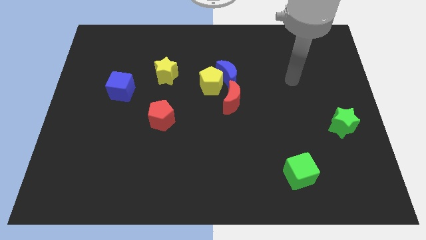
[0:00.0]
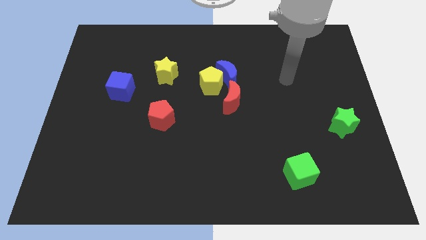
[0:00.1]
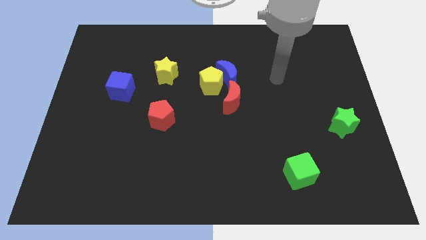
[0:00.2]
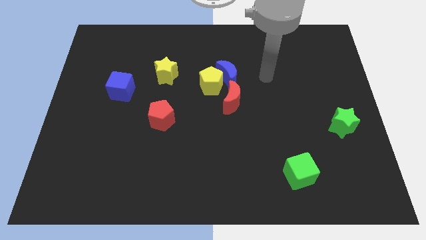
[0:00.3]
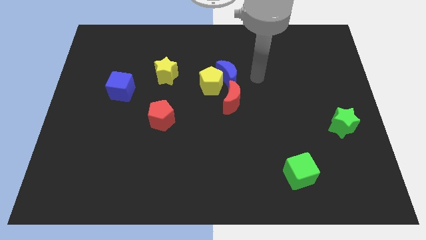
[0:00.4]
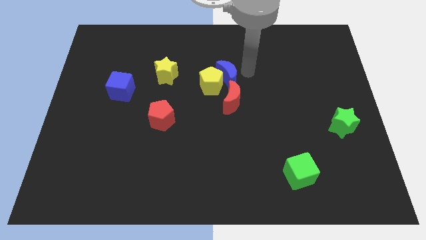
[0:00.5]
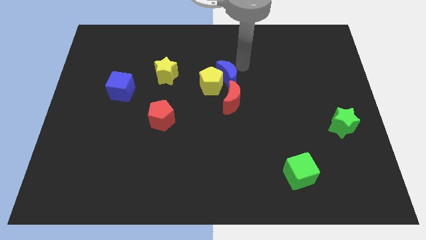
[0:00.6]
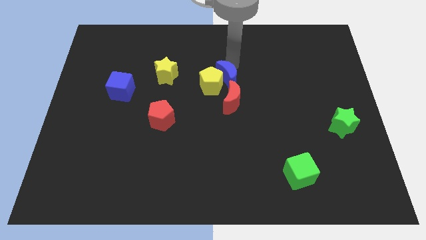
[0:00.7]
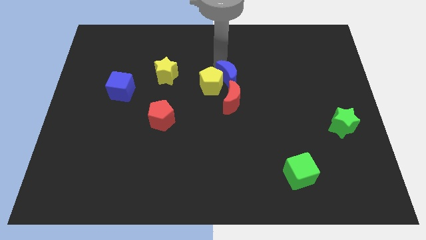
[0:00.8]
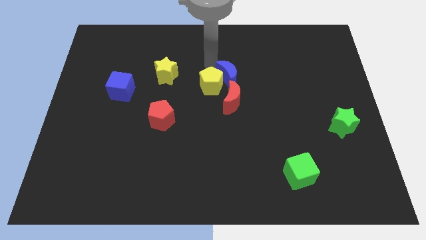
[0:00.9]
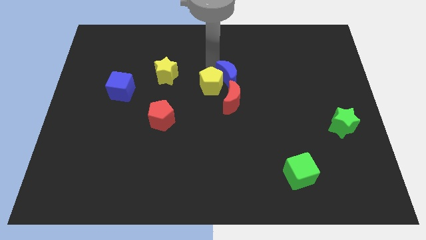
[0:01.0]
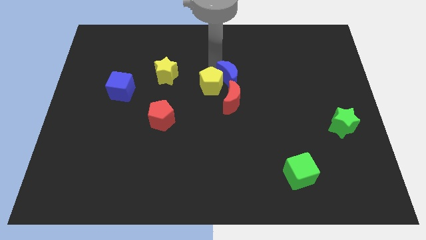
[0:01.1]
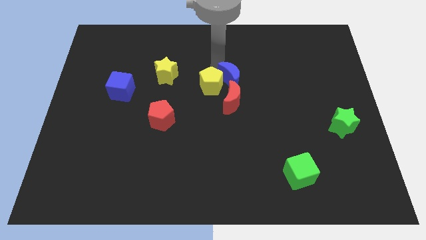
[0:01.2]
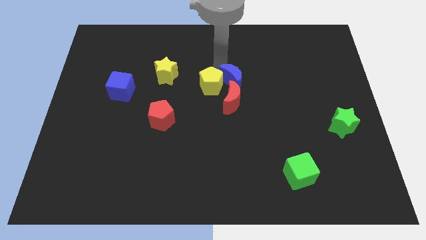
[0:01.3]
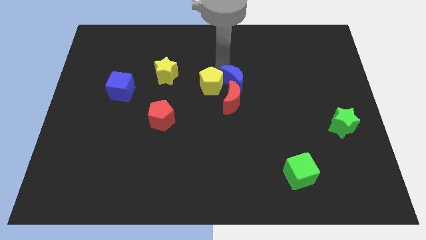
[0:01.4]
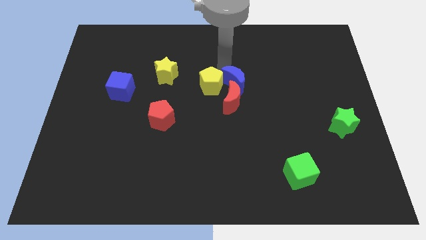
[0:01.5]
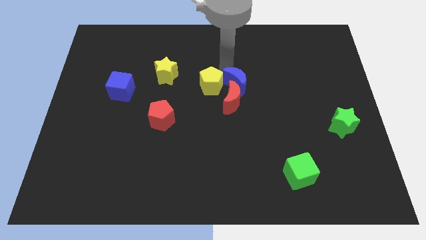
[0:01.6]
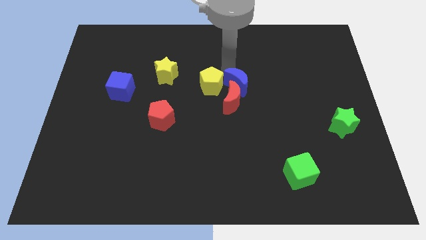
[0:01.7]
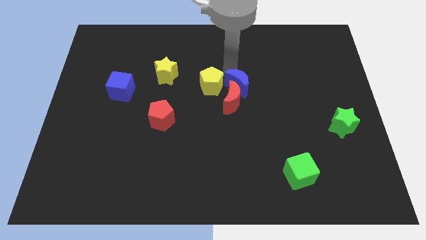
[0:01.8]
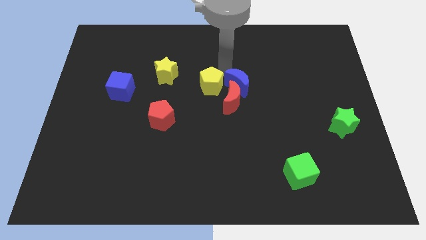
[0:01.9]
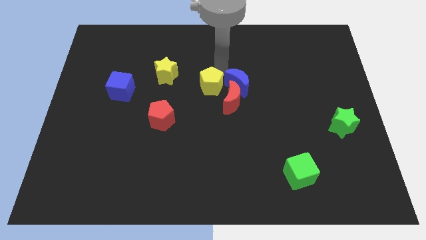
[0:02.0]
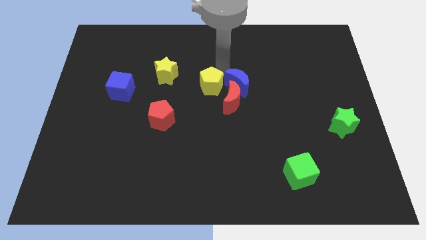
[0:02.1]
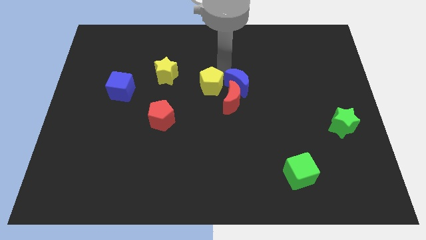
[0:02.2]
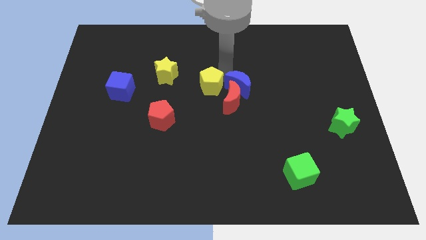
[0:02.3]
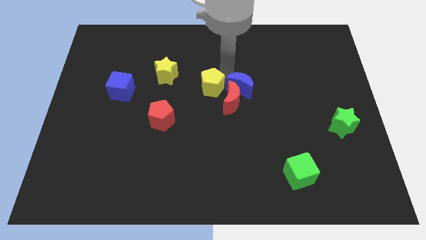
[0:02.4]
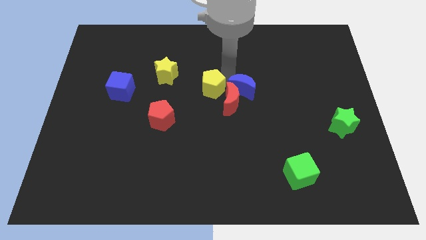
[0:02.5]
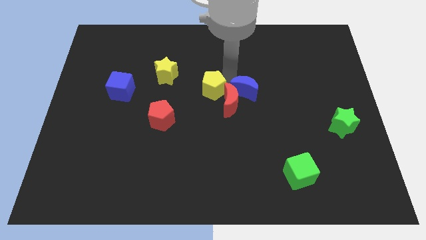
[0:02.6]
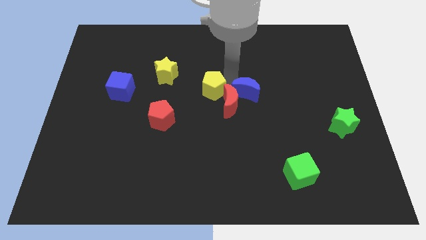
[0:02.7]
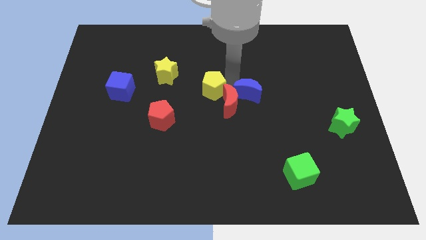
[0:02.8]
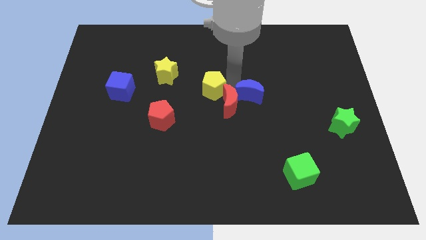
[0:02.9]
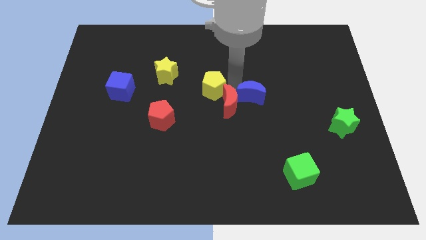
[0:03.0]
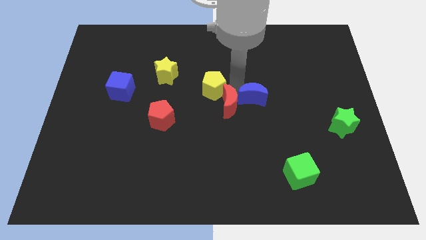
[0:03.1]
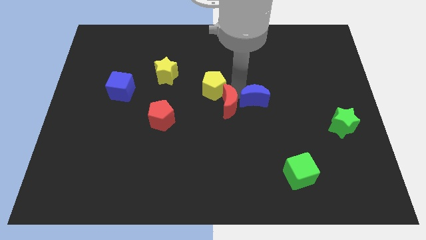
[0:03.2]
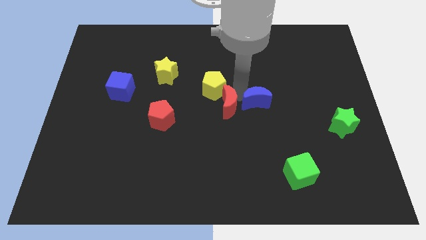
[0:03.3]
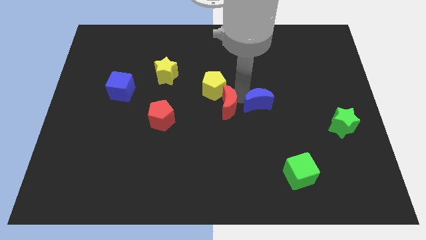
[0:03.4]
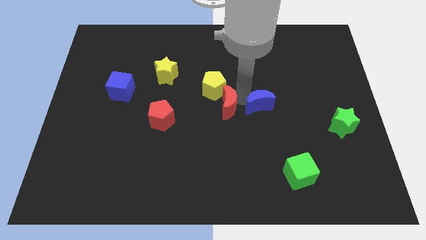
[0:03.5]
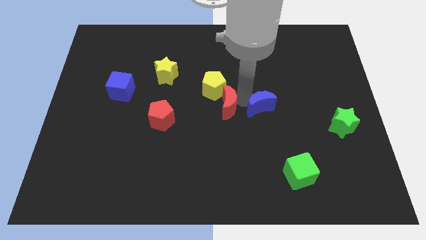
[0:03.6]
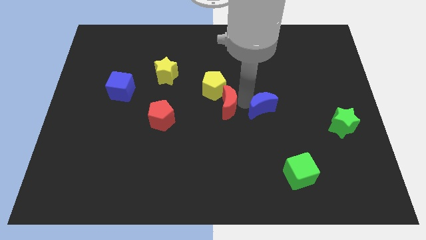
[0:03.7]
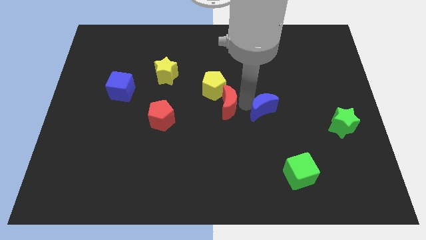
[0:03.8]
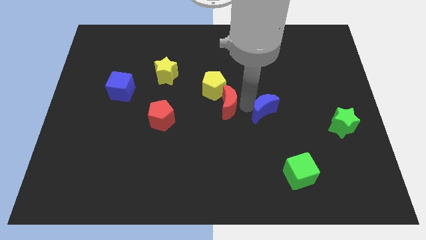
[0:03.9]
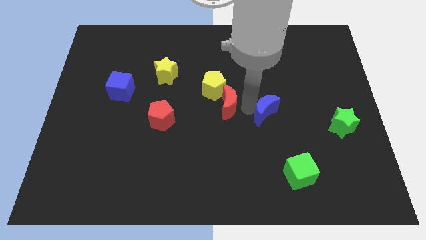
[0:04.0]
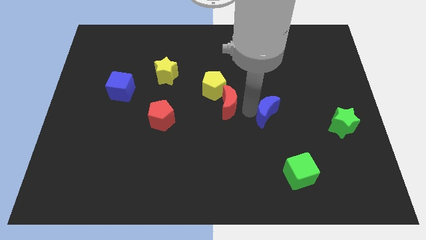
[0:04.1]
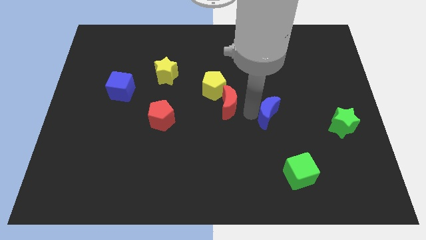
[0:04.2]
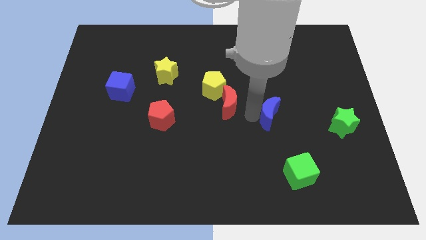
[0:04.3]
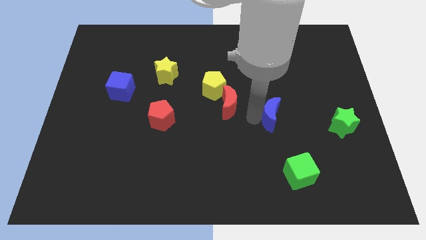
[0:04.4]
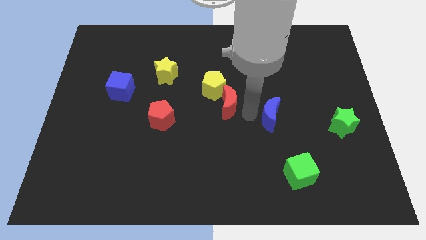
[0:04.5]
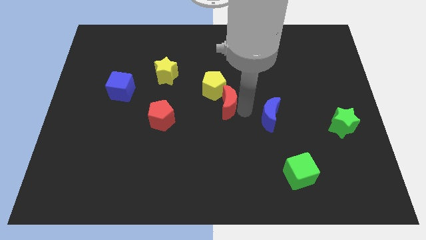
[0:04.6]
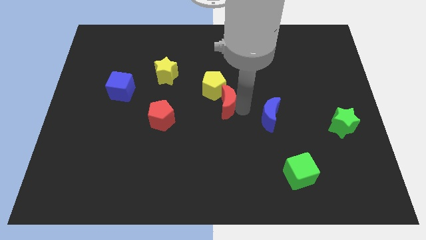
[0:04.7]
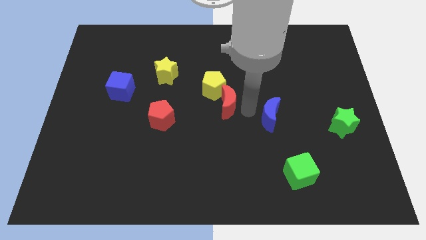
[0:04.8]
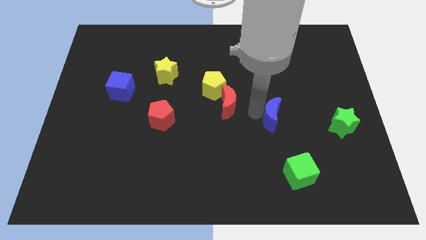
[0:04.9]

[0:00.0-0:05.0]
push the blue moon left of the green star

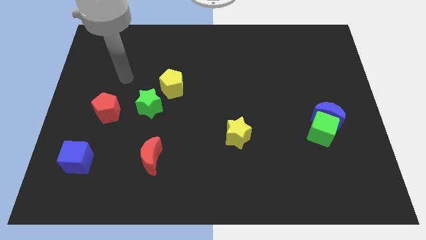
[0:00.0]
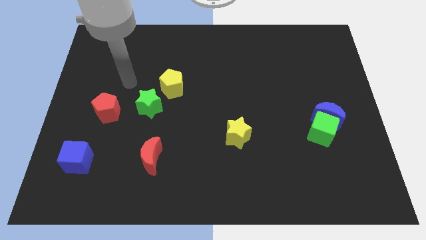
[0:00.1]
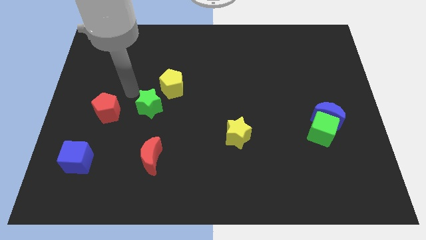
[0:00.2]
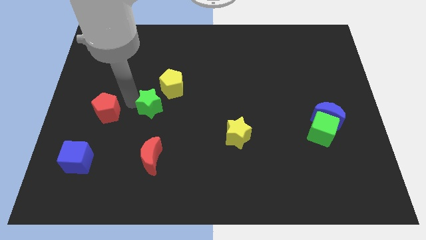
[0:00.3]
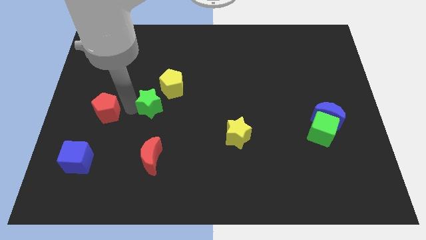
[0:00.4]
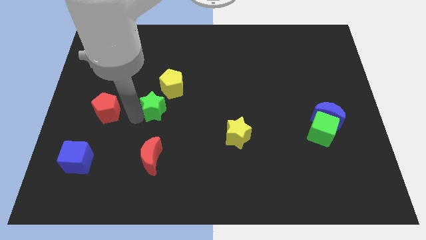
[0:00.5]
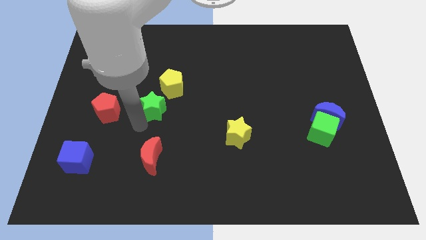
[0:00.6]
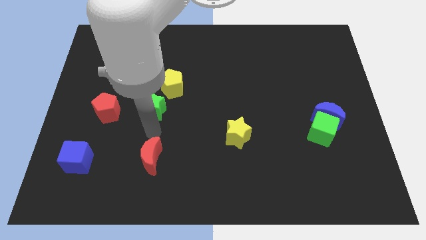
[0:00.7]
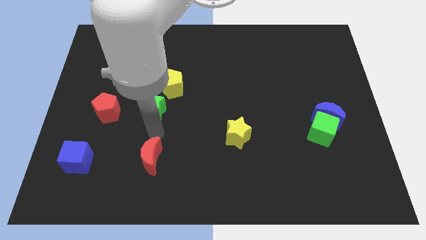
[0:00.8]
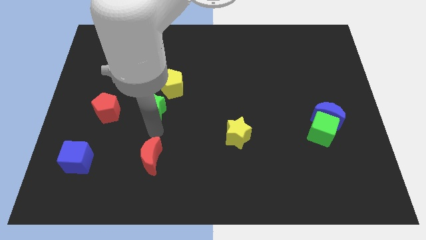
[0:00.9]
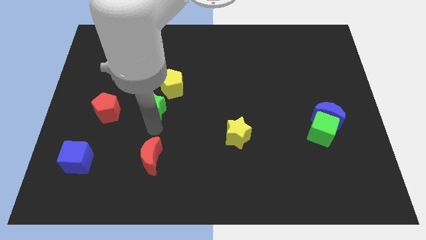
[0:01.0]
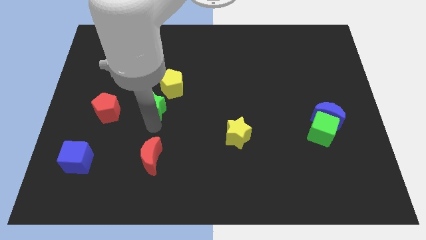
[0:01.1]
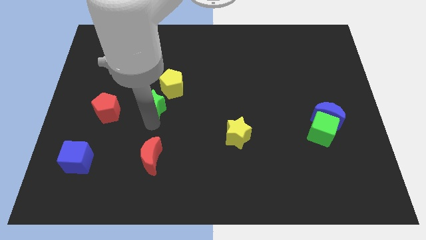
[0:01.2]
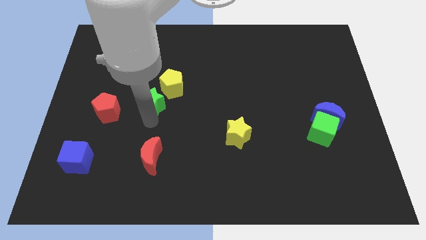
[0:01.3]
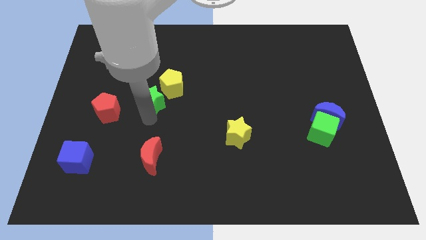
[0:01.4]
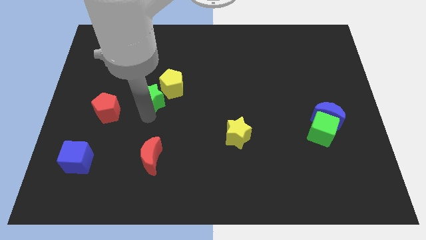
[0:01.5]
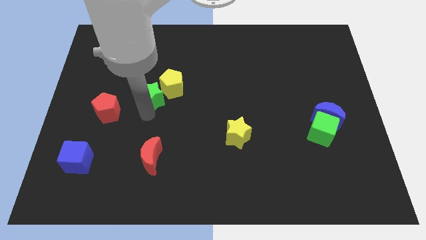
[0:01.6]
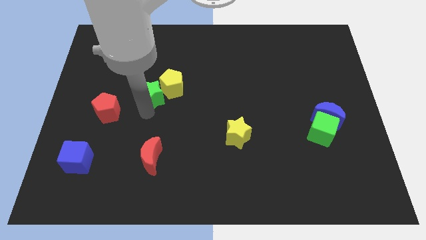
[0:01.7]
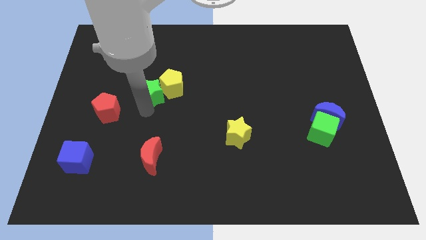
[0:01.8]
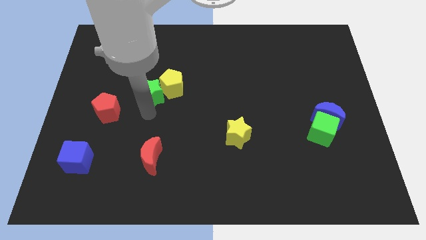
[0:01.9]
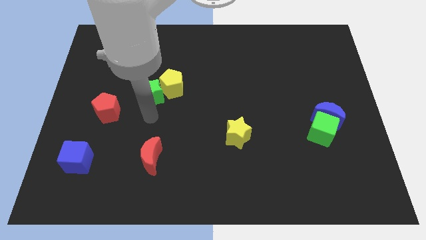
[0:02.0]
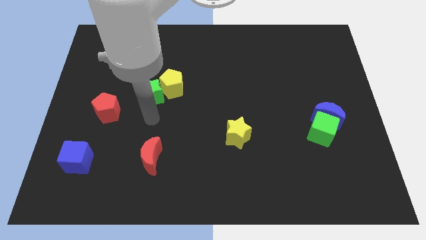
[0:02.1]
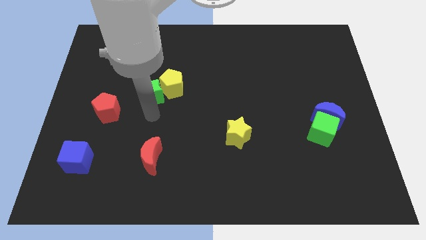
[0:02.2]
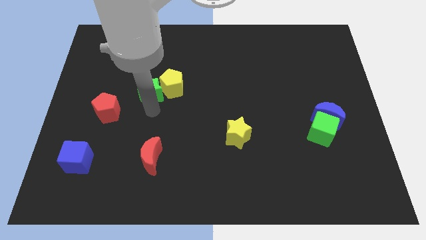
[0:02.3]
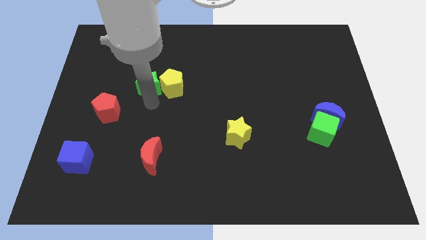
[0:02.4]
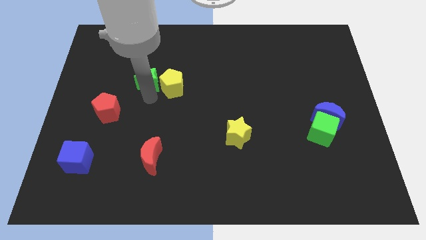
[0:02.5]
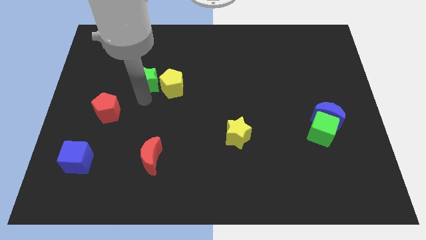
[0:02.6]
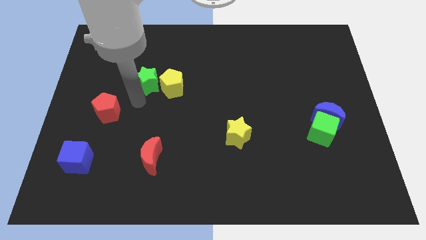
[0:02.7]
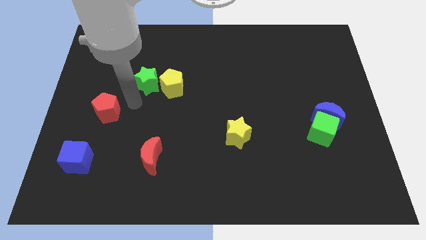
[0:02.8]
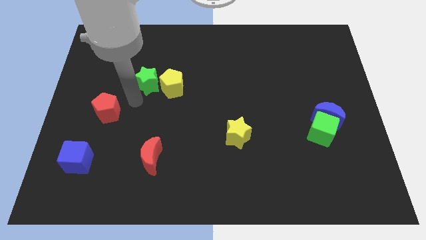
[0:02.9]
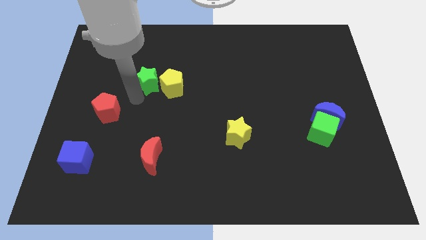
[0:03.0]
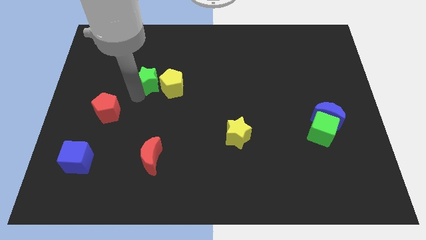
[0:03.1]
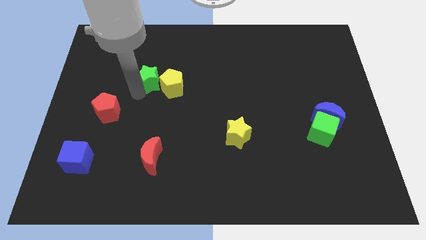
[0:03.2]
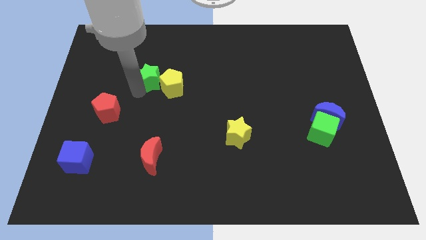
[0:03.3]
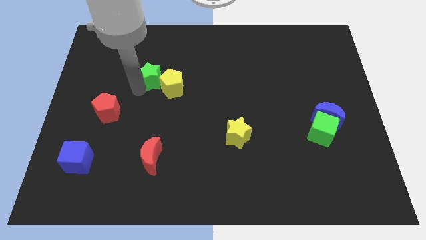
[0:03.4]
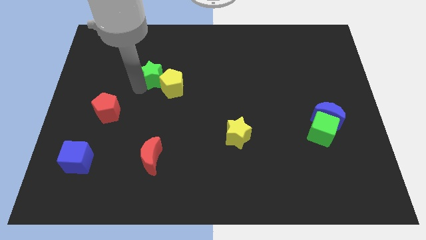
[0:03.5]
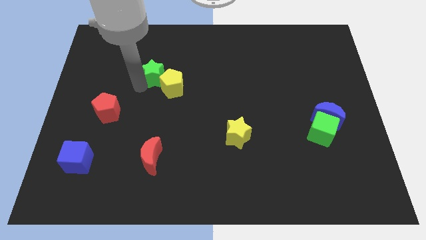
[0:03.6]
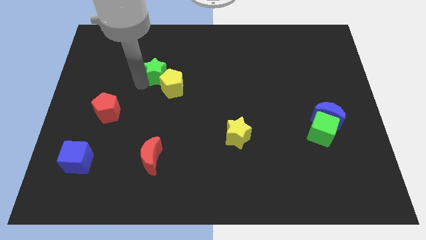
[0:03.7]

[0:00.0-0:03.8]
push the green star to the top side of the yellow pentagon
